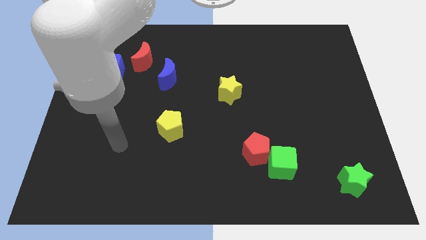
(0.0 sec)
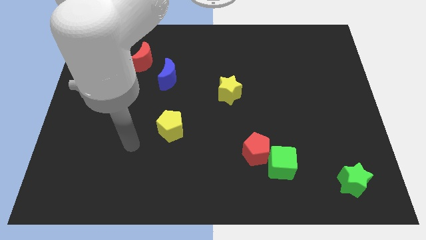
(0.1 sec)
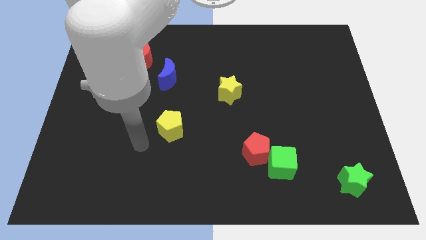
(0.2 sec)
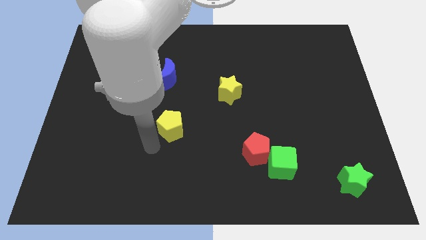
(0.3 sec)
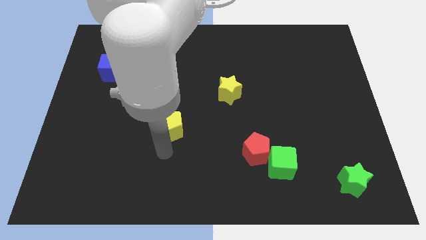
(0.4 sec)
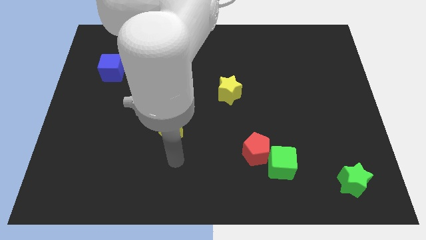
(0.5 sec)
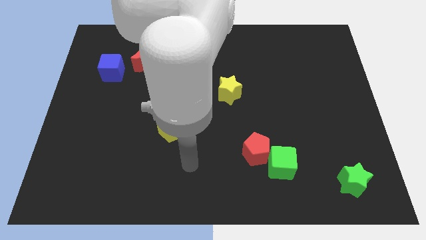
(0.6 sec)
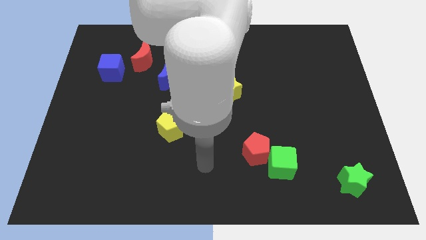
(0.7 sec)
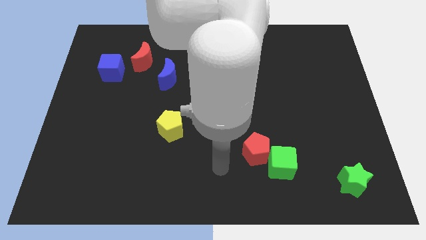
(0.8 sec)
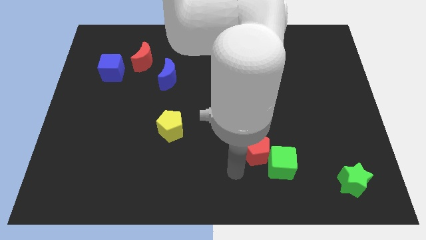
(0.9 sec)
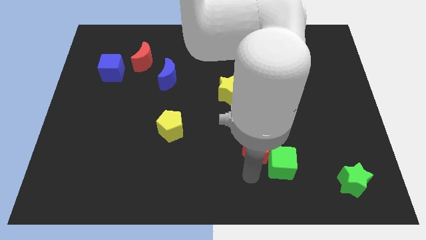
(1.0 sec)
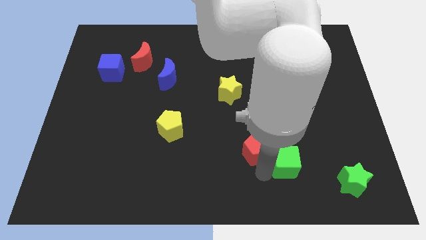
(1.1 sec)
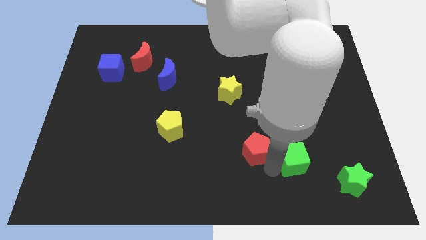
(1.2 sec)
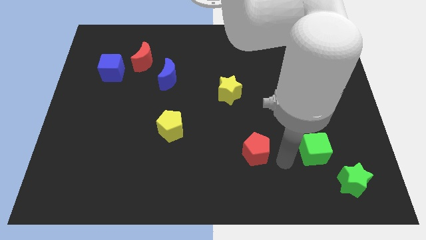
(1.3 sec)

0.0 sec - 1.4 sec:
separate the red pentagon from the green cube

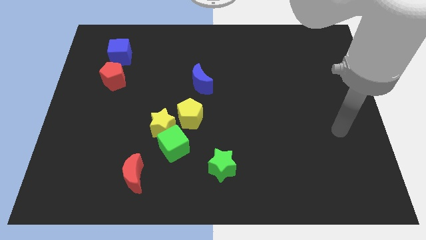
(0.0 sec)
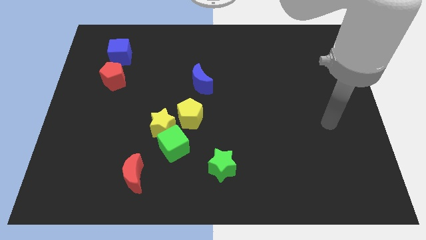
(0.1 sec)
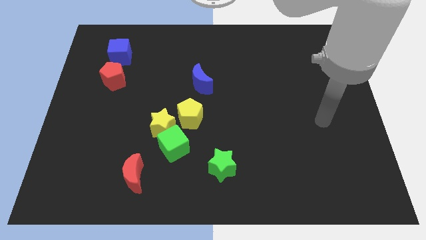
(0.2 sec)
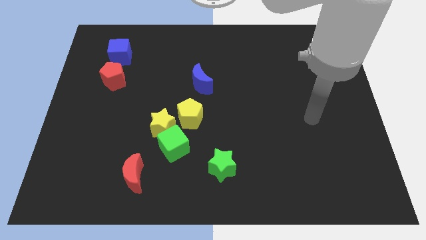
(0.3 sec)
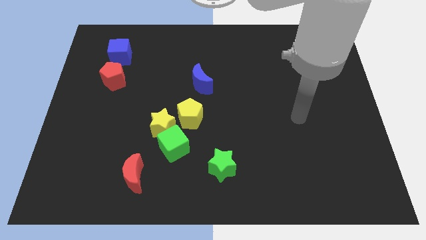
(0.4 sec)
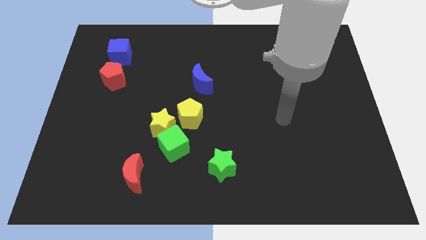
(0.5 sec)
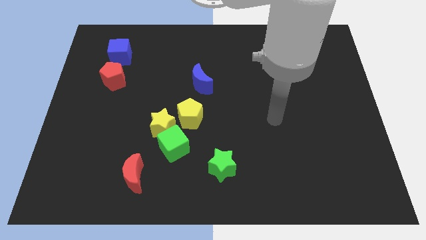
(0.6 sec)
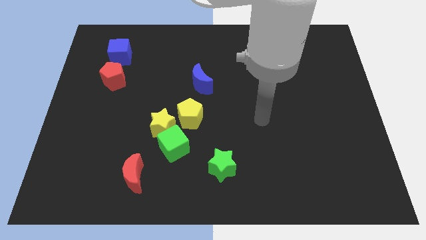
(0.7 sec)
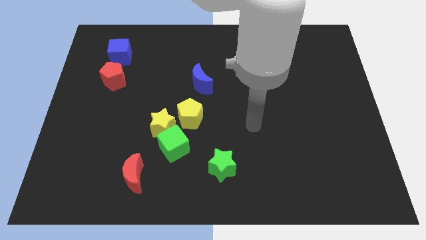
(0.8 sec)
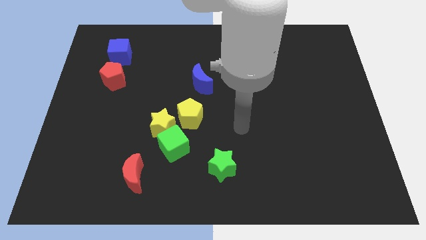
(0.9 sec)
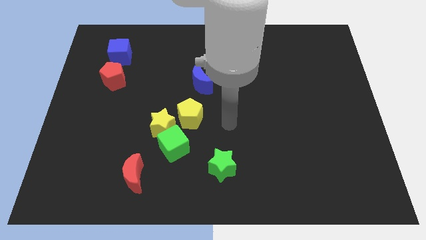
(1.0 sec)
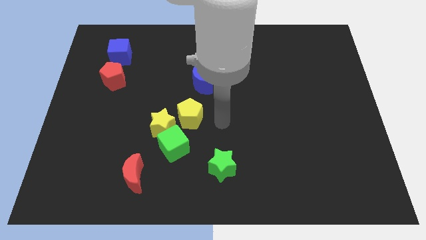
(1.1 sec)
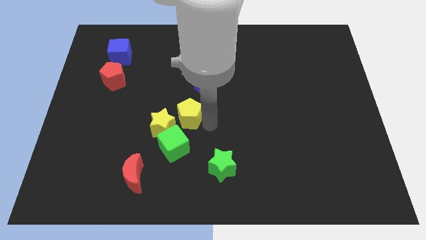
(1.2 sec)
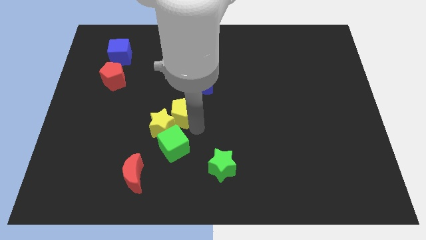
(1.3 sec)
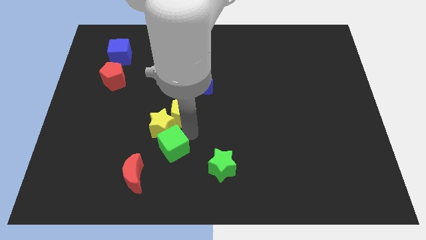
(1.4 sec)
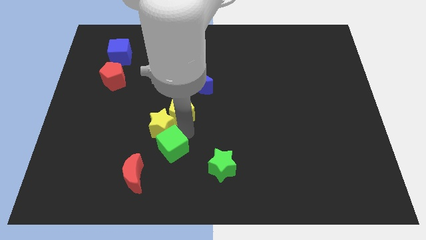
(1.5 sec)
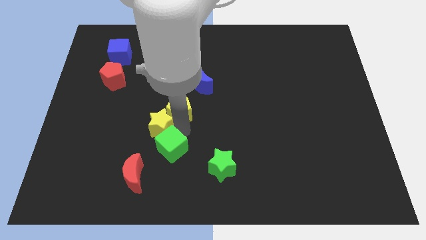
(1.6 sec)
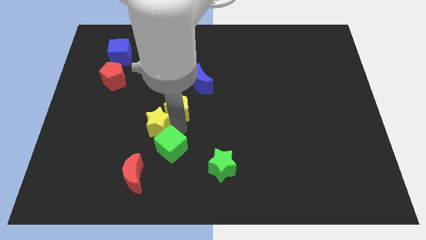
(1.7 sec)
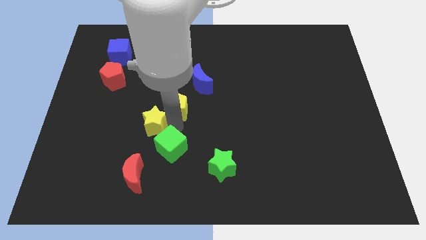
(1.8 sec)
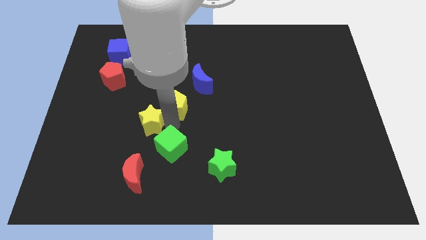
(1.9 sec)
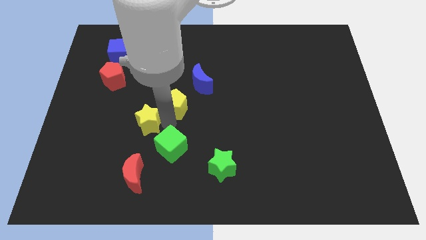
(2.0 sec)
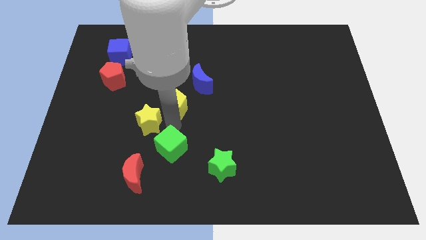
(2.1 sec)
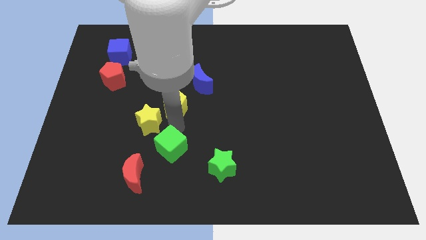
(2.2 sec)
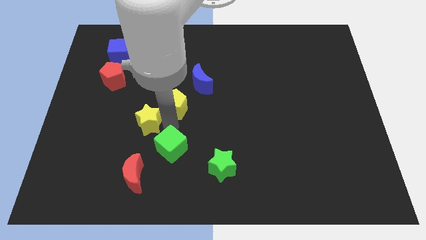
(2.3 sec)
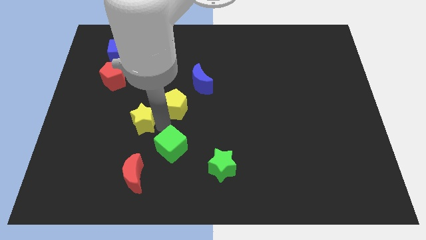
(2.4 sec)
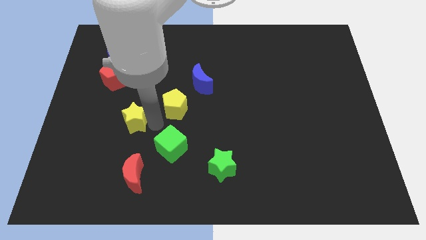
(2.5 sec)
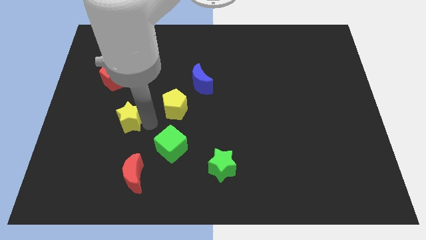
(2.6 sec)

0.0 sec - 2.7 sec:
move the yellow star away from the green cube and yellow pentagon

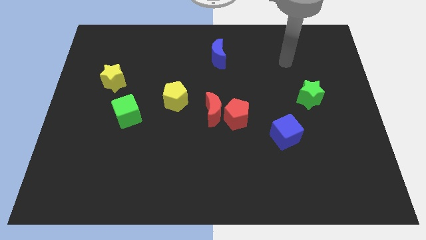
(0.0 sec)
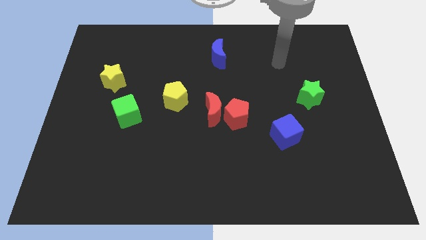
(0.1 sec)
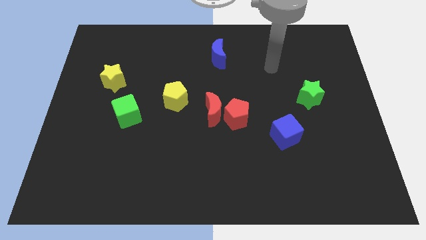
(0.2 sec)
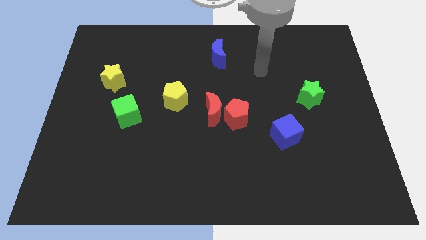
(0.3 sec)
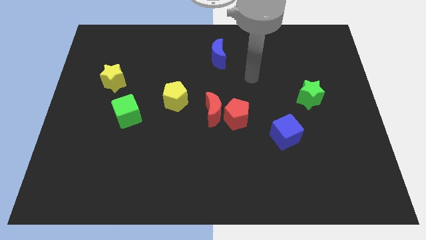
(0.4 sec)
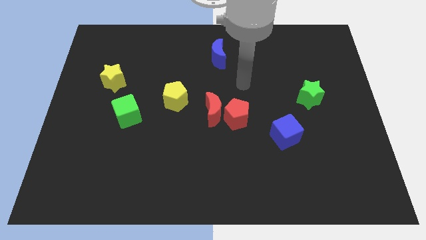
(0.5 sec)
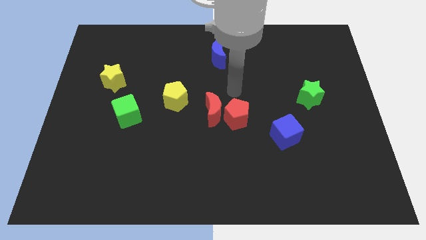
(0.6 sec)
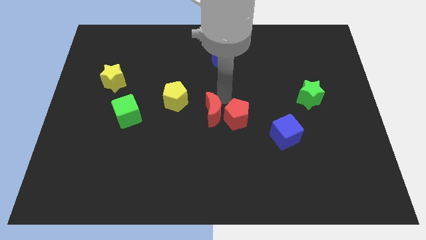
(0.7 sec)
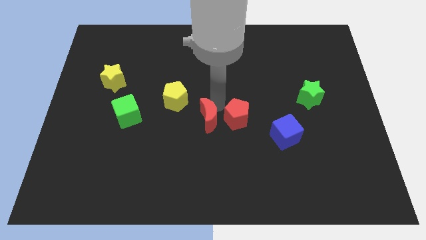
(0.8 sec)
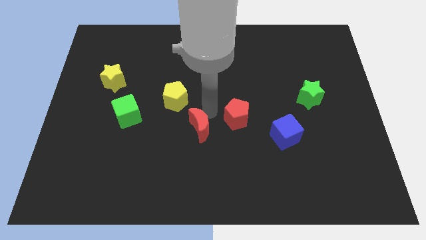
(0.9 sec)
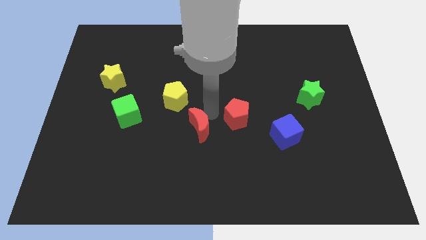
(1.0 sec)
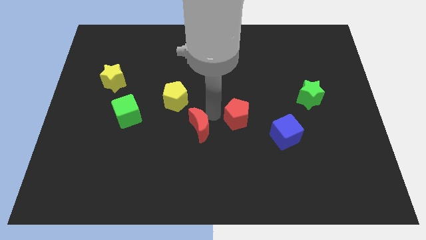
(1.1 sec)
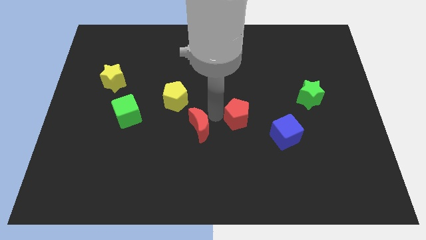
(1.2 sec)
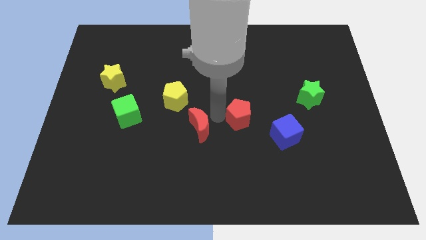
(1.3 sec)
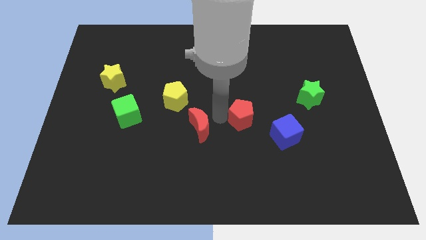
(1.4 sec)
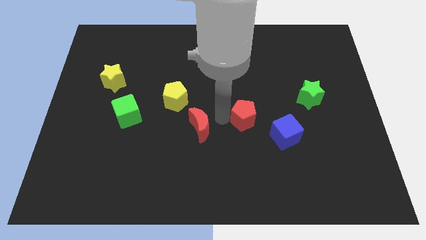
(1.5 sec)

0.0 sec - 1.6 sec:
move the red pentagon away from the red moon

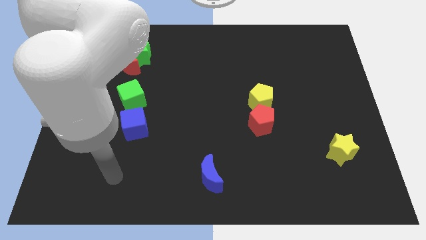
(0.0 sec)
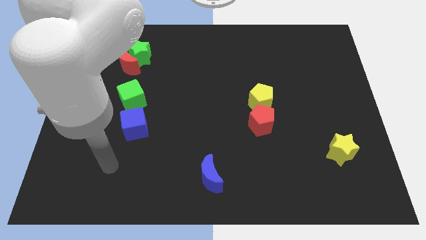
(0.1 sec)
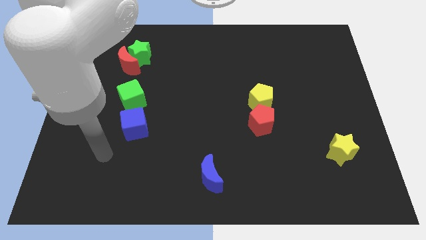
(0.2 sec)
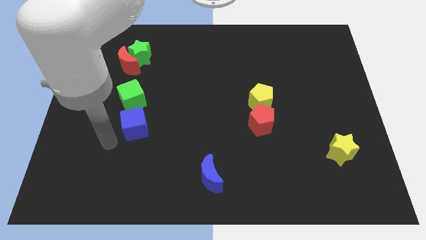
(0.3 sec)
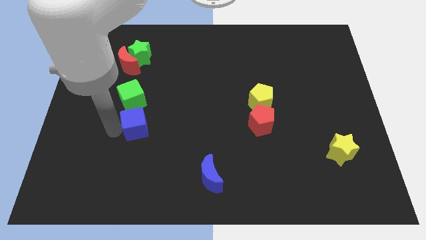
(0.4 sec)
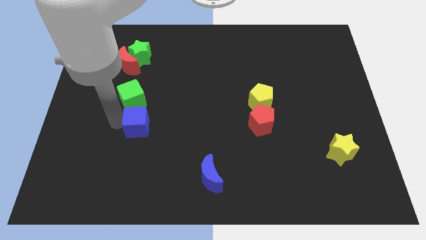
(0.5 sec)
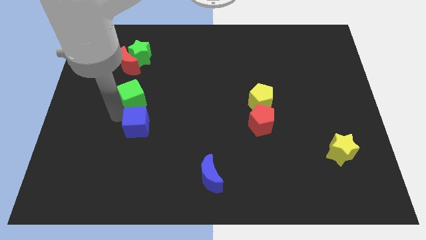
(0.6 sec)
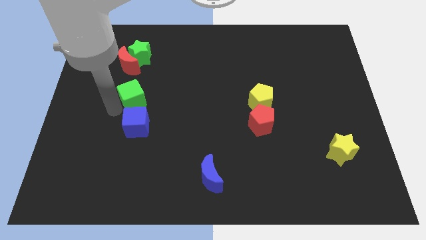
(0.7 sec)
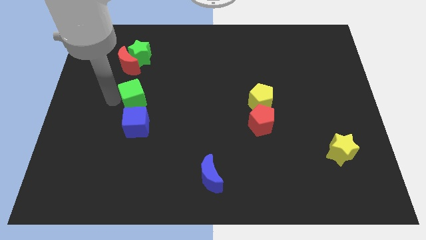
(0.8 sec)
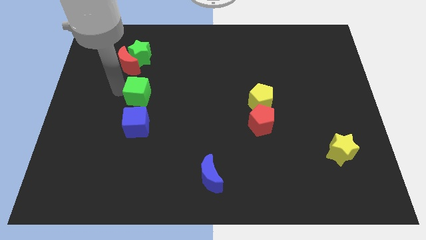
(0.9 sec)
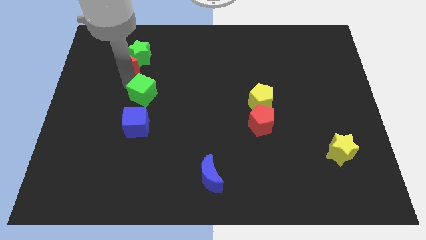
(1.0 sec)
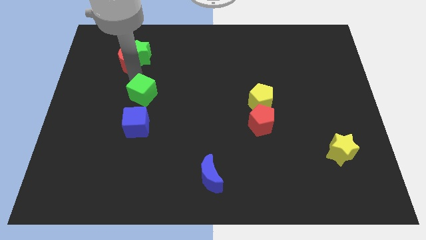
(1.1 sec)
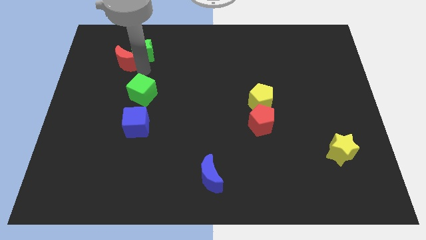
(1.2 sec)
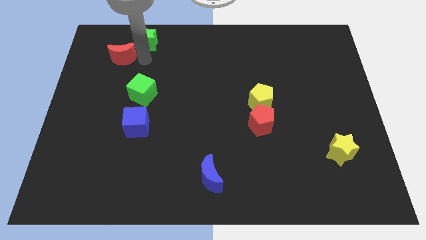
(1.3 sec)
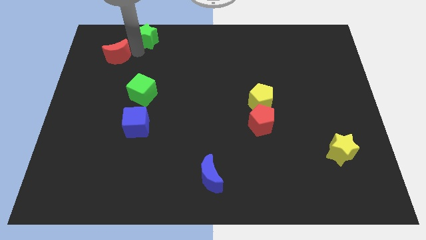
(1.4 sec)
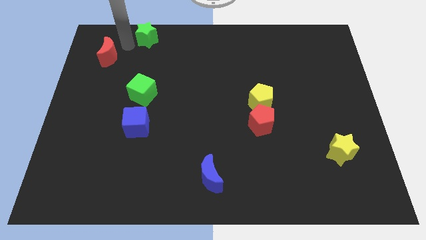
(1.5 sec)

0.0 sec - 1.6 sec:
separate the red moon from the green star

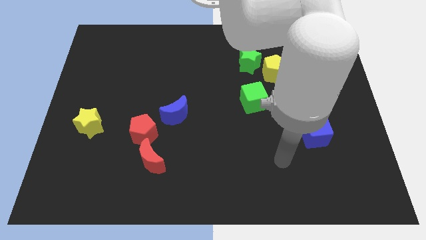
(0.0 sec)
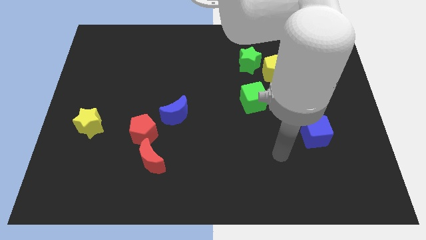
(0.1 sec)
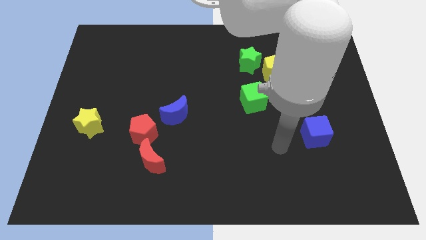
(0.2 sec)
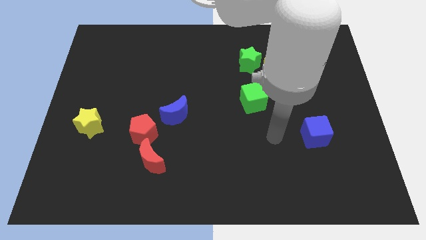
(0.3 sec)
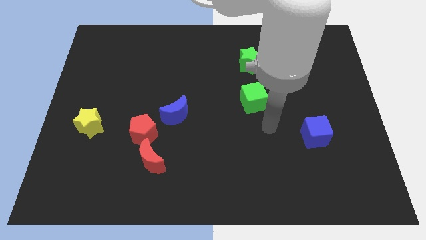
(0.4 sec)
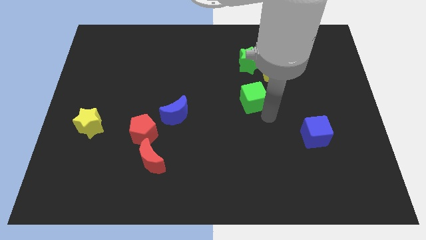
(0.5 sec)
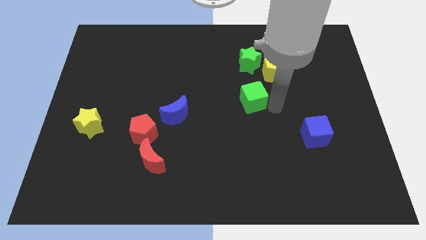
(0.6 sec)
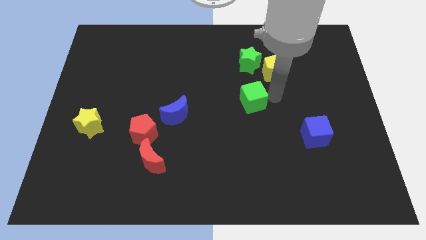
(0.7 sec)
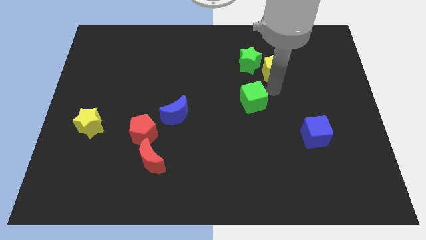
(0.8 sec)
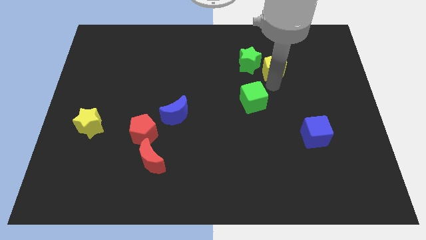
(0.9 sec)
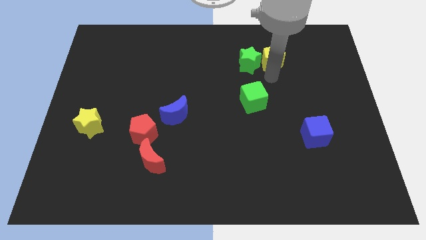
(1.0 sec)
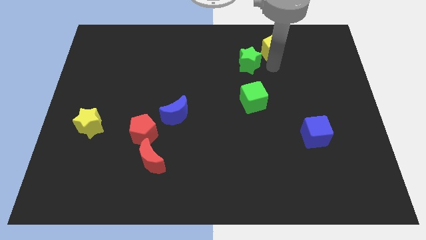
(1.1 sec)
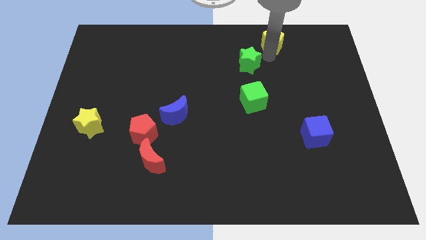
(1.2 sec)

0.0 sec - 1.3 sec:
pull the green star apart from the yellow pentagon

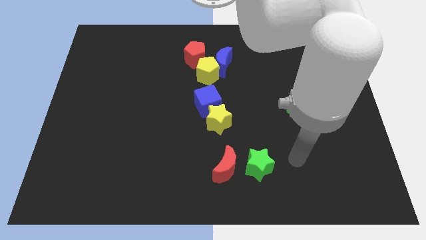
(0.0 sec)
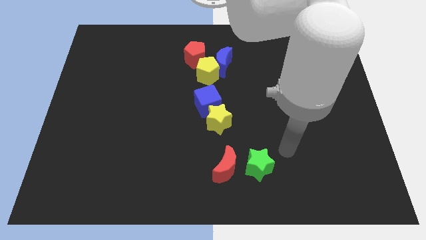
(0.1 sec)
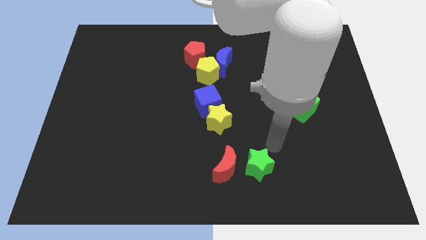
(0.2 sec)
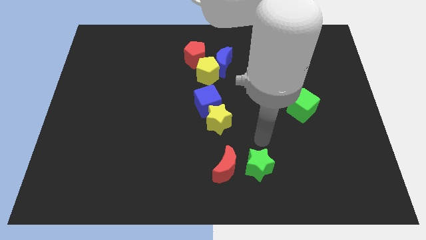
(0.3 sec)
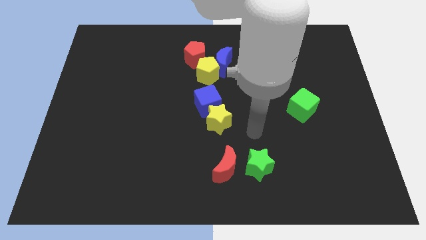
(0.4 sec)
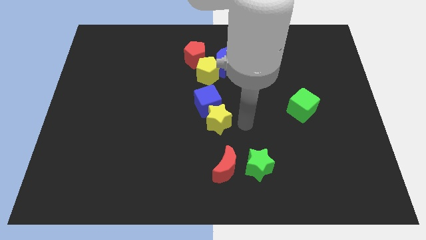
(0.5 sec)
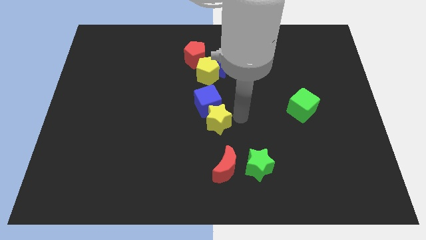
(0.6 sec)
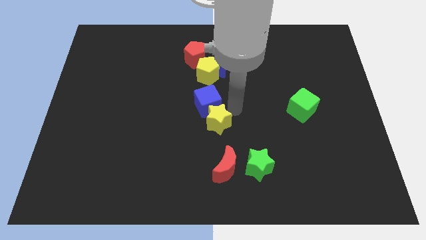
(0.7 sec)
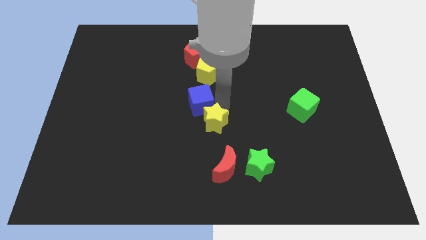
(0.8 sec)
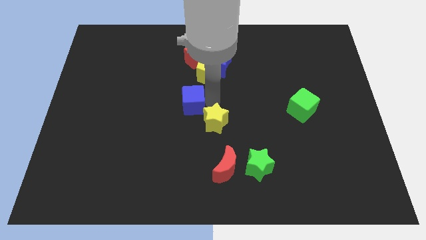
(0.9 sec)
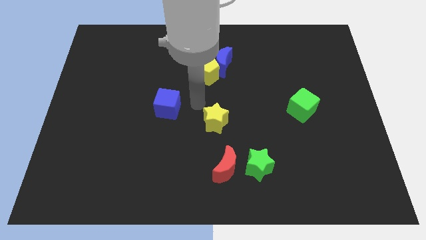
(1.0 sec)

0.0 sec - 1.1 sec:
pull the yellow star apart from the blue cube
